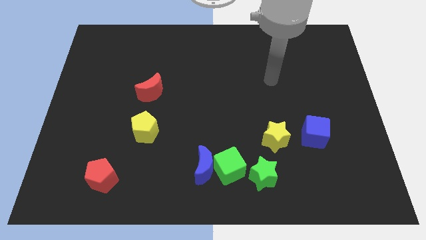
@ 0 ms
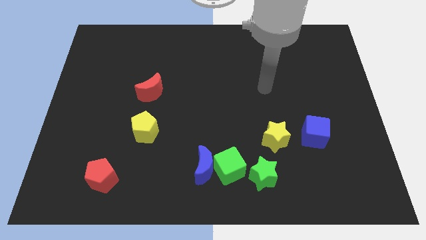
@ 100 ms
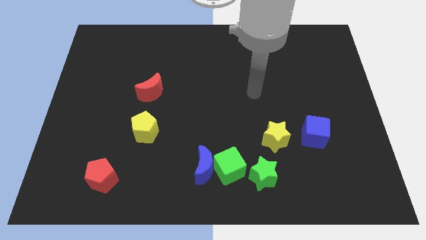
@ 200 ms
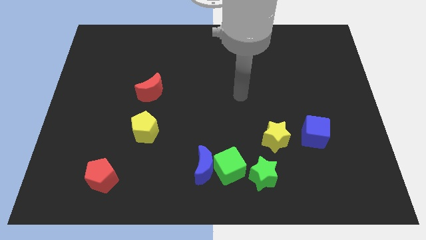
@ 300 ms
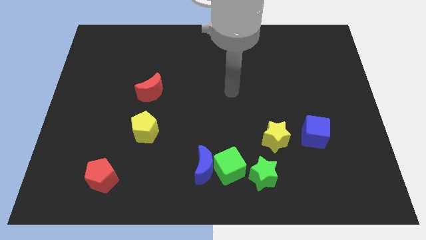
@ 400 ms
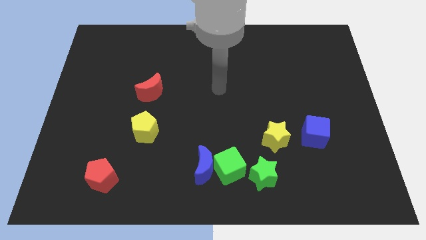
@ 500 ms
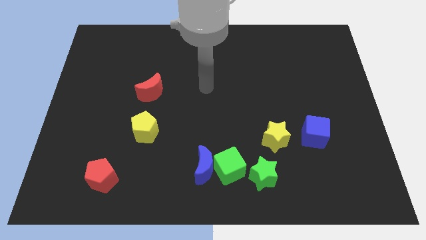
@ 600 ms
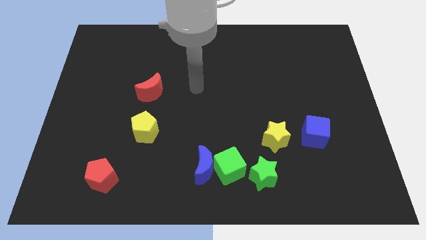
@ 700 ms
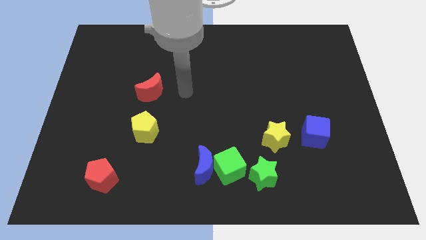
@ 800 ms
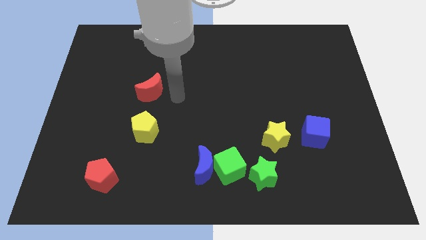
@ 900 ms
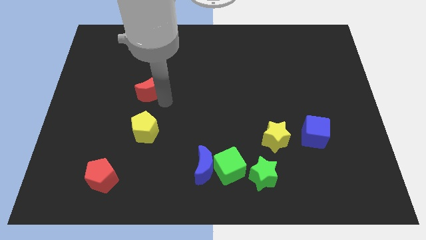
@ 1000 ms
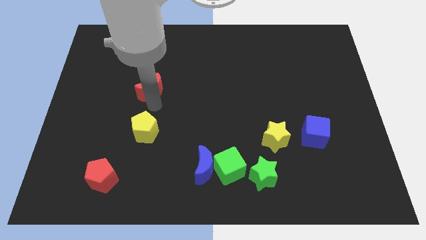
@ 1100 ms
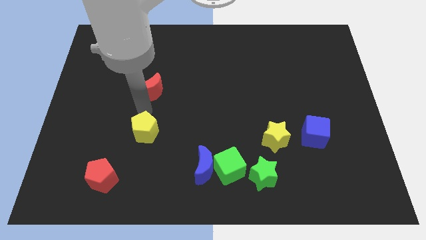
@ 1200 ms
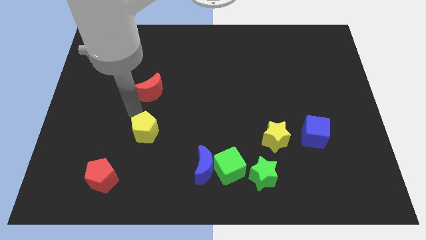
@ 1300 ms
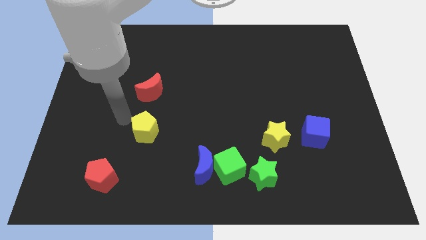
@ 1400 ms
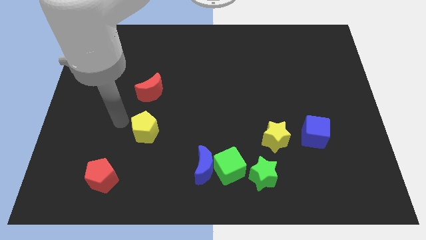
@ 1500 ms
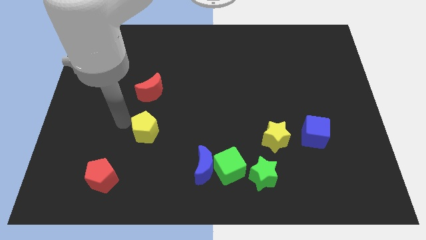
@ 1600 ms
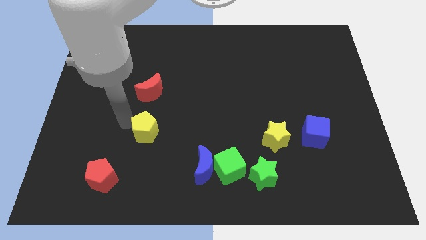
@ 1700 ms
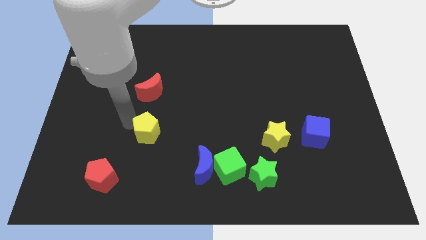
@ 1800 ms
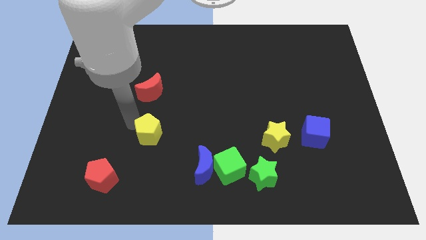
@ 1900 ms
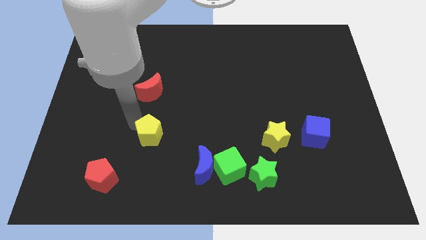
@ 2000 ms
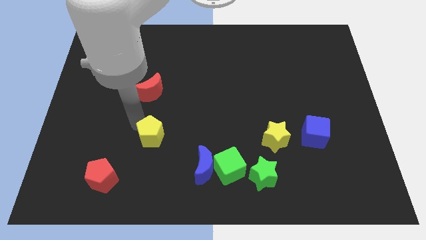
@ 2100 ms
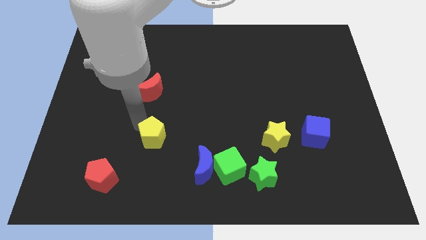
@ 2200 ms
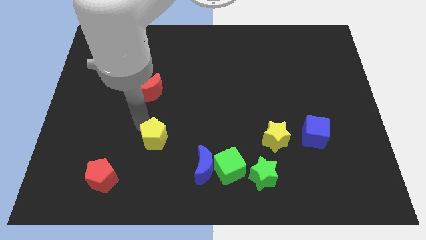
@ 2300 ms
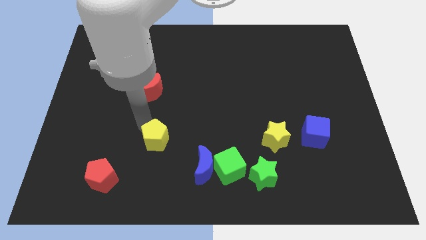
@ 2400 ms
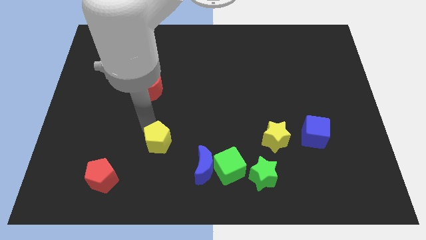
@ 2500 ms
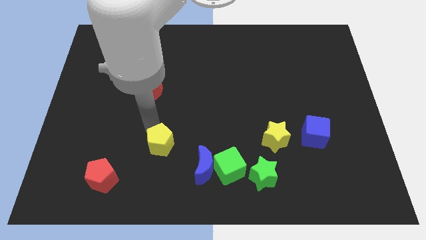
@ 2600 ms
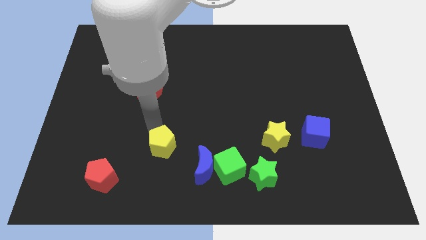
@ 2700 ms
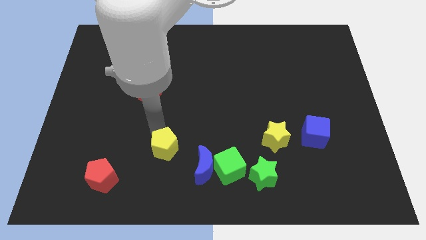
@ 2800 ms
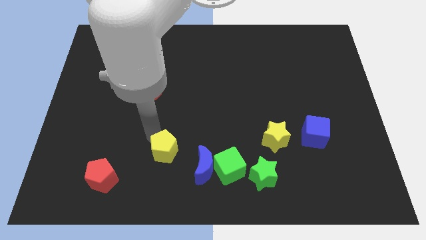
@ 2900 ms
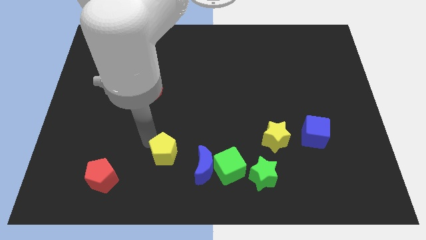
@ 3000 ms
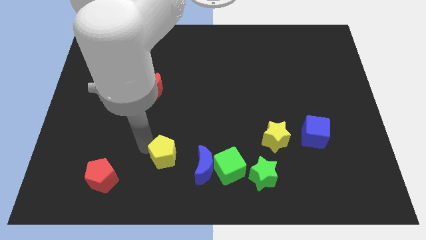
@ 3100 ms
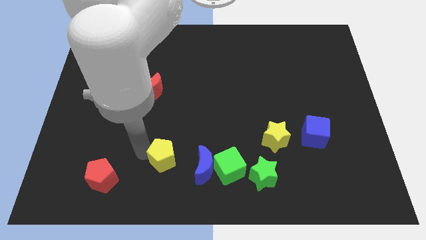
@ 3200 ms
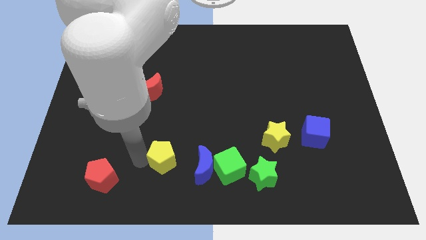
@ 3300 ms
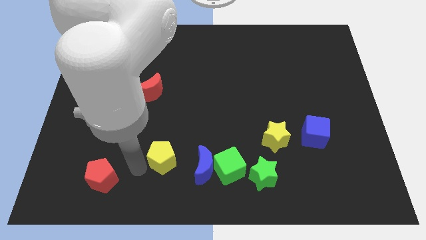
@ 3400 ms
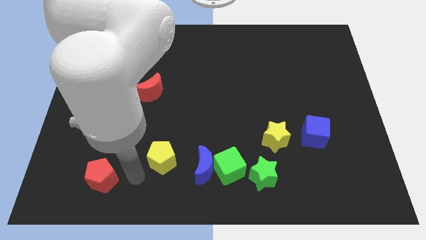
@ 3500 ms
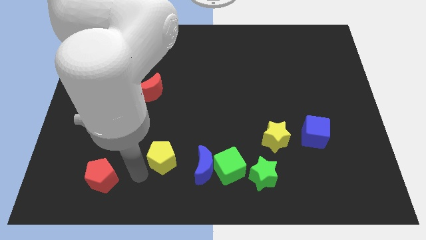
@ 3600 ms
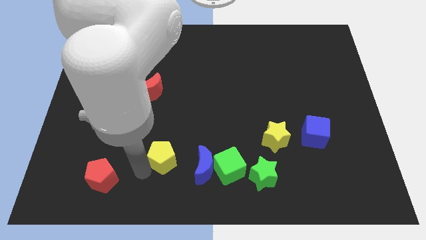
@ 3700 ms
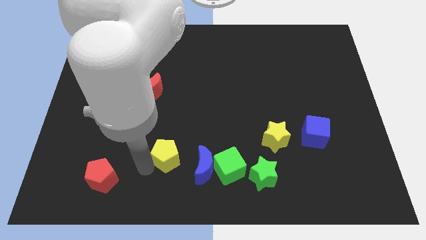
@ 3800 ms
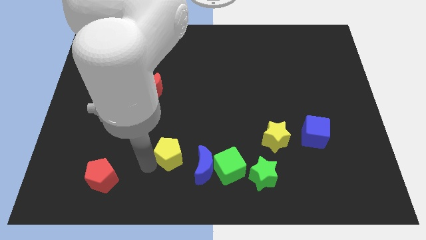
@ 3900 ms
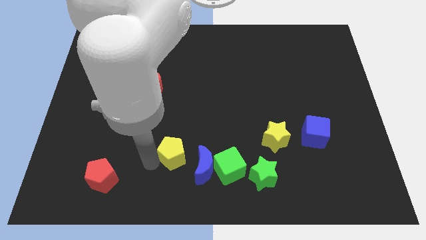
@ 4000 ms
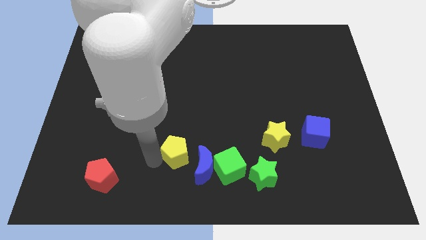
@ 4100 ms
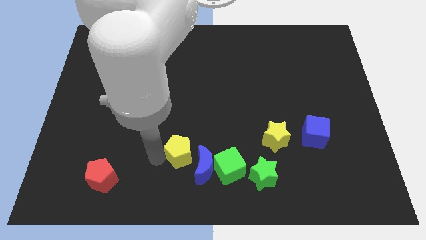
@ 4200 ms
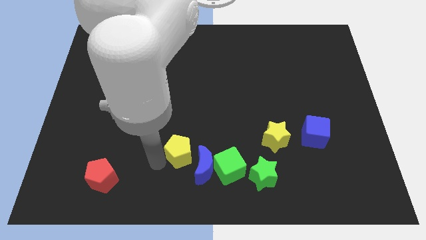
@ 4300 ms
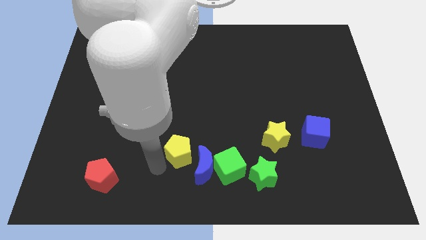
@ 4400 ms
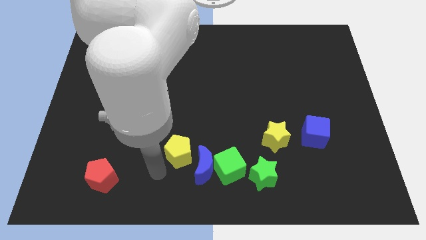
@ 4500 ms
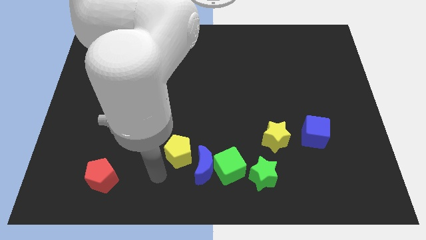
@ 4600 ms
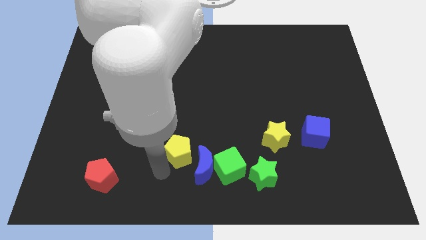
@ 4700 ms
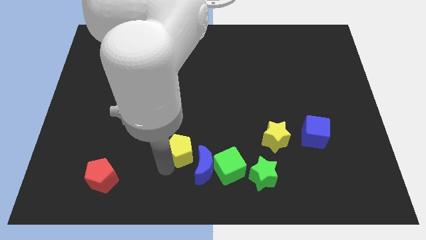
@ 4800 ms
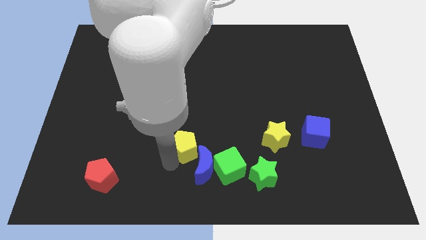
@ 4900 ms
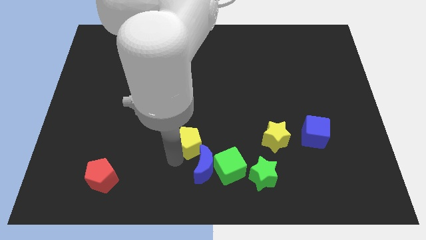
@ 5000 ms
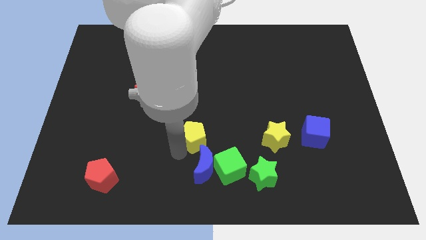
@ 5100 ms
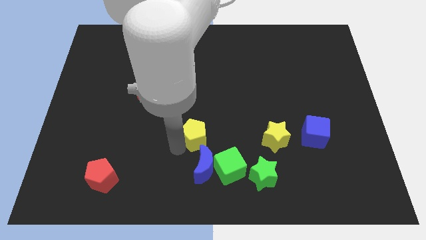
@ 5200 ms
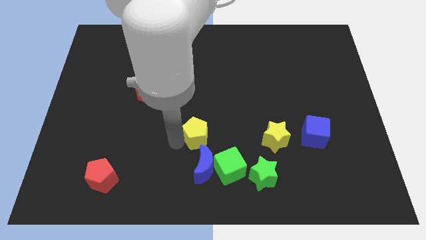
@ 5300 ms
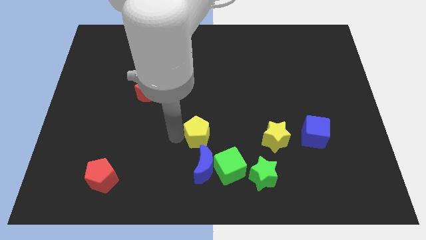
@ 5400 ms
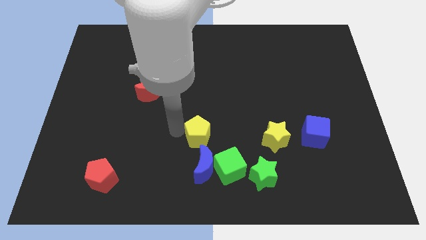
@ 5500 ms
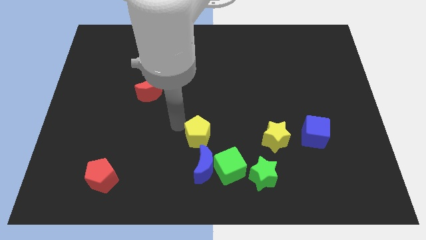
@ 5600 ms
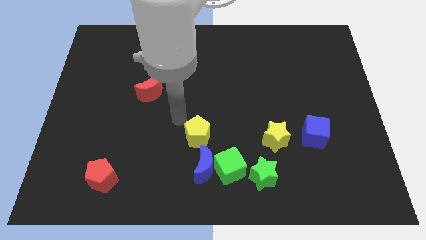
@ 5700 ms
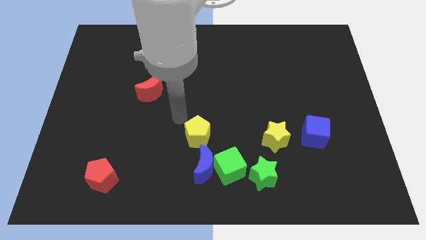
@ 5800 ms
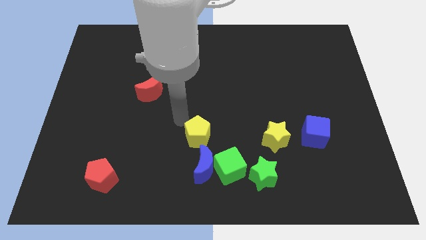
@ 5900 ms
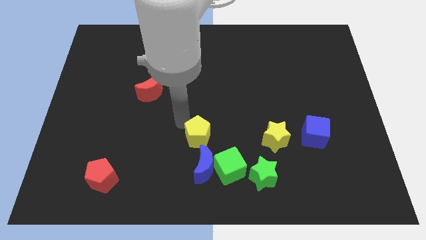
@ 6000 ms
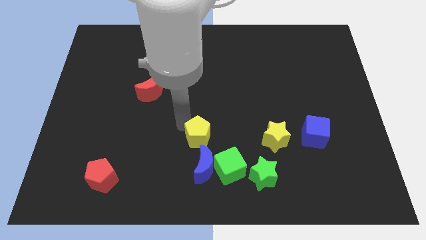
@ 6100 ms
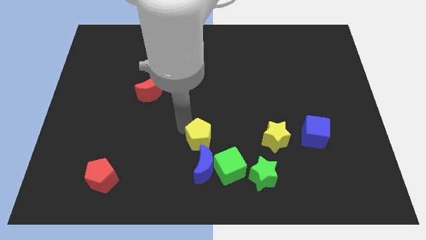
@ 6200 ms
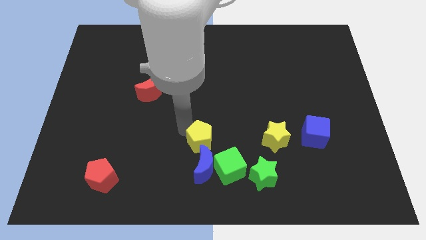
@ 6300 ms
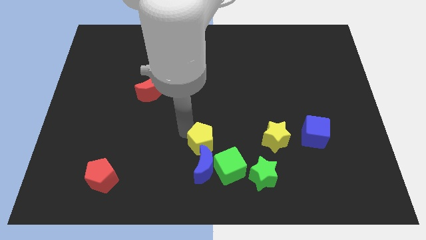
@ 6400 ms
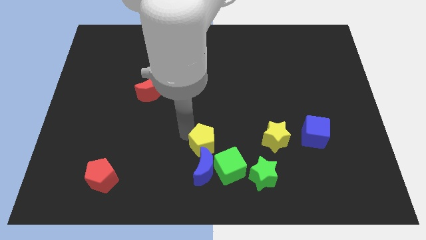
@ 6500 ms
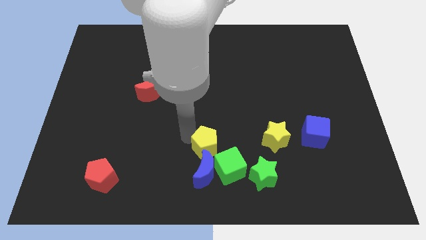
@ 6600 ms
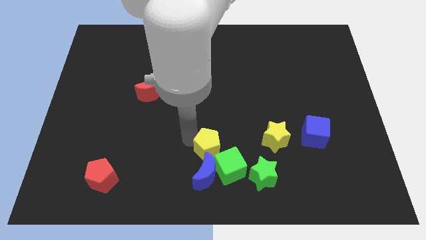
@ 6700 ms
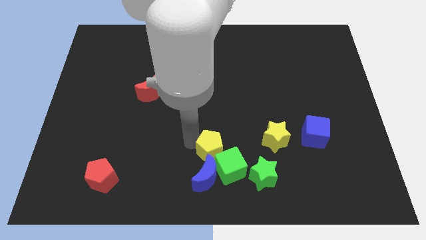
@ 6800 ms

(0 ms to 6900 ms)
put the yellow pentagon towards the green cube
